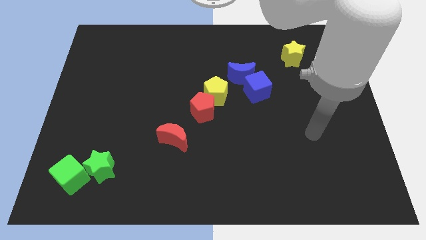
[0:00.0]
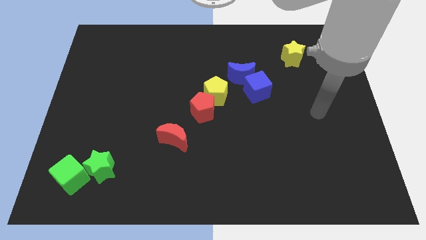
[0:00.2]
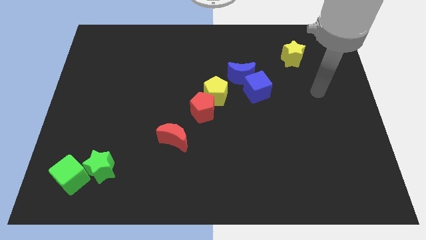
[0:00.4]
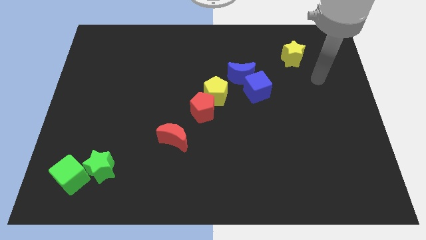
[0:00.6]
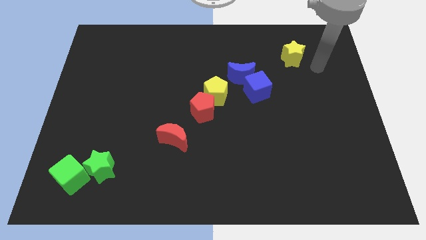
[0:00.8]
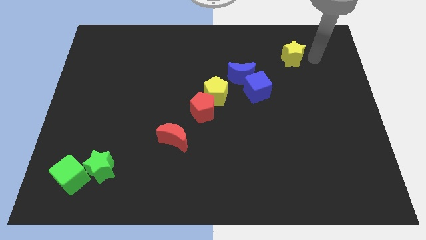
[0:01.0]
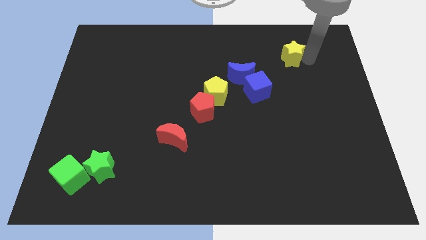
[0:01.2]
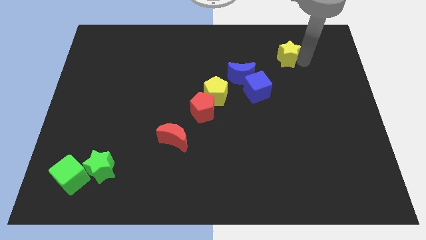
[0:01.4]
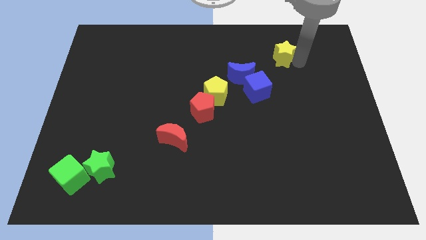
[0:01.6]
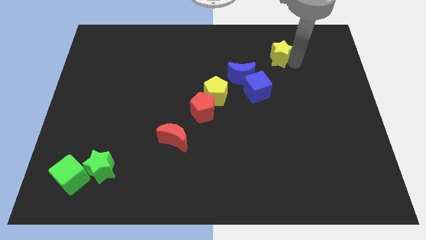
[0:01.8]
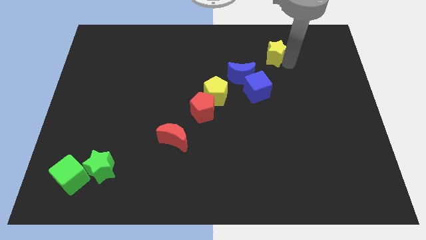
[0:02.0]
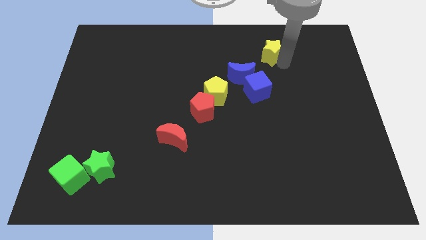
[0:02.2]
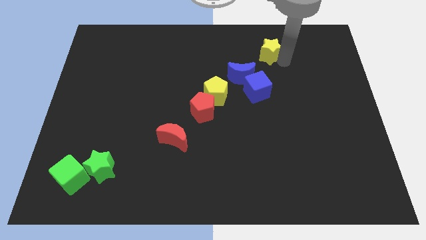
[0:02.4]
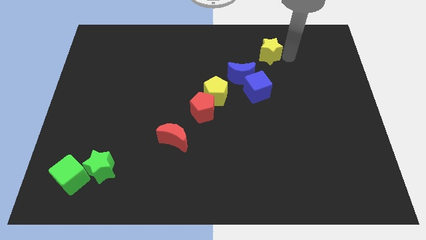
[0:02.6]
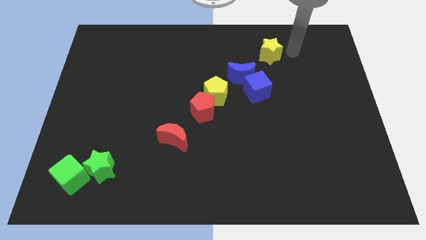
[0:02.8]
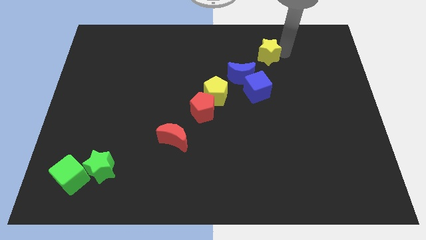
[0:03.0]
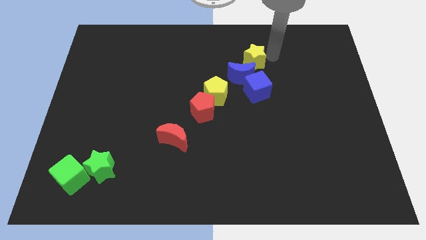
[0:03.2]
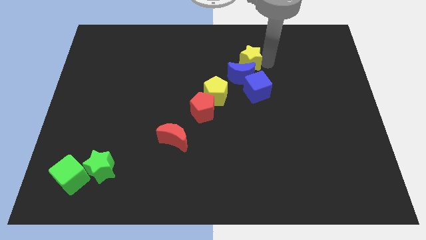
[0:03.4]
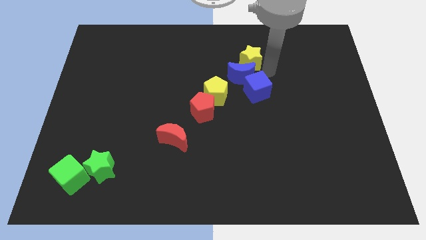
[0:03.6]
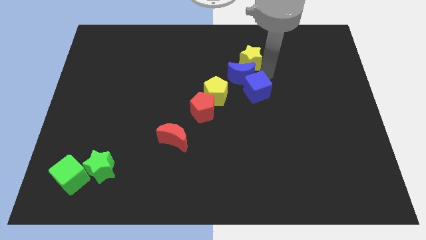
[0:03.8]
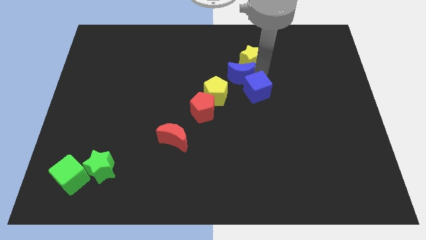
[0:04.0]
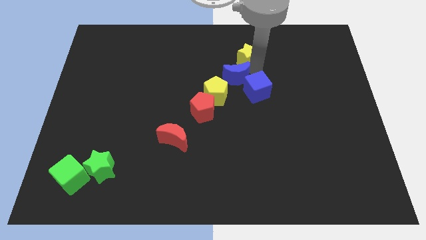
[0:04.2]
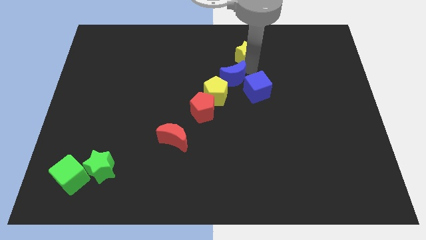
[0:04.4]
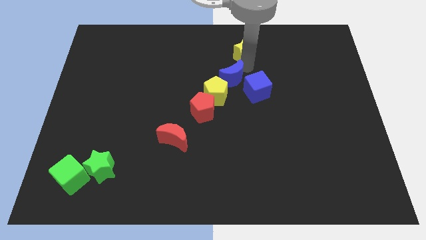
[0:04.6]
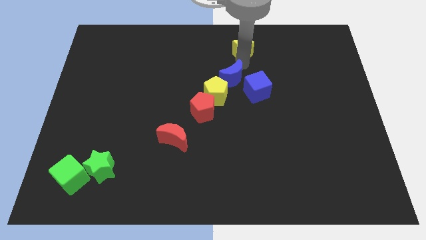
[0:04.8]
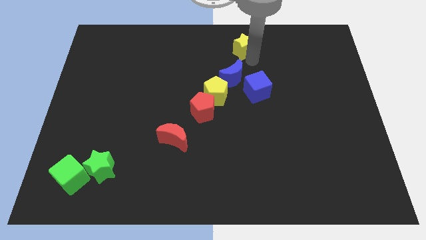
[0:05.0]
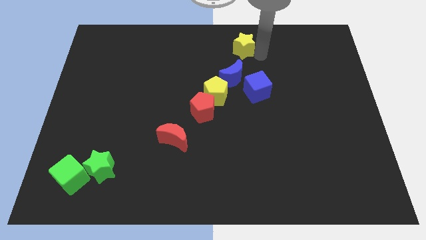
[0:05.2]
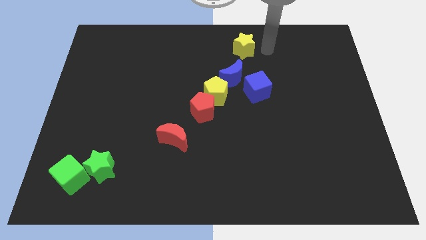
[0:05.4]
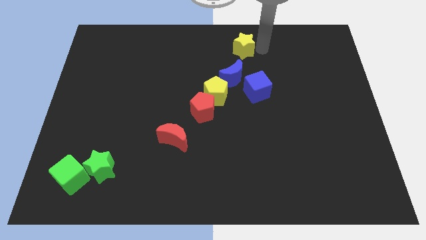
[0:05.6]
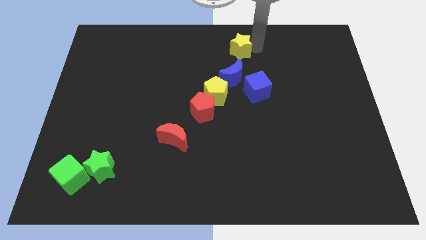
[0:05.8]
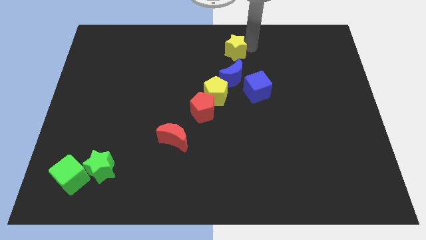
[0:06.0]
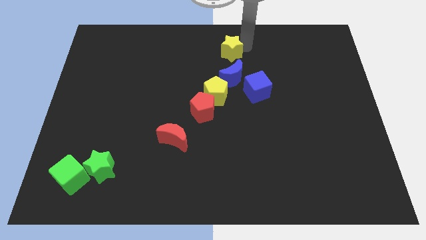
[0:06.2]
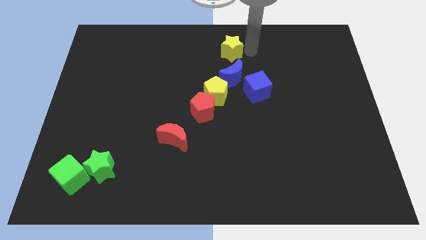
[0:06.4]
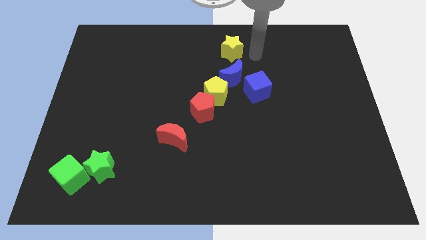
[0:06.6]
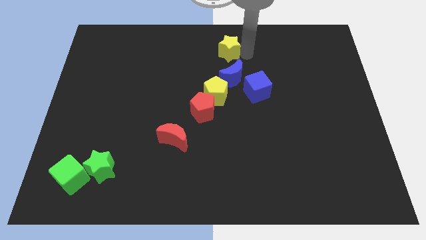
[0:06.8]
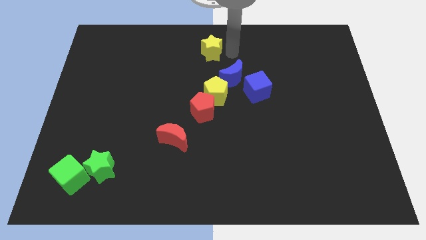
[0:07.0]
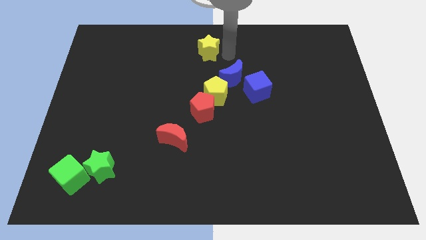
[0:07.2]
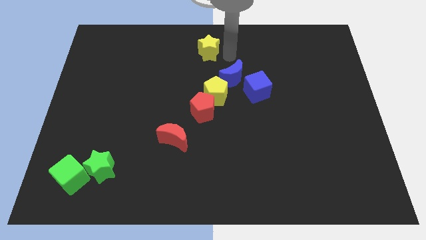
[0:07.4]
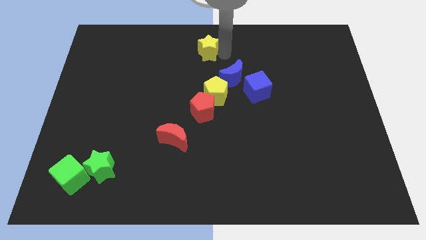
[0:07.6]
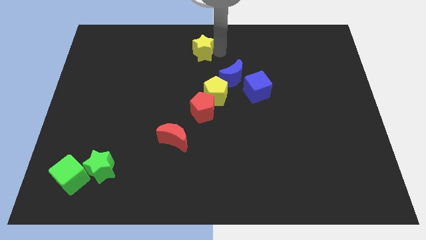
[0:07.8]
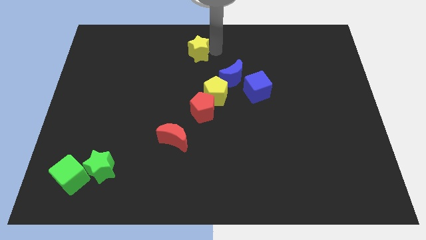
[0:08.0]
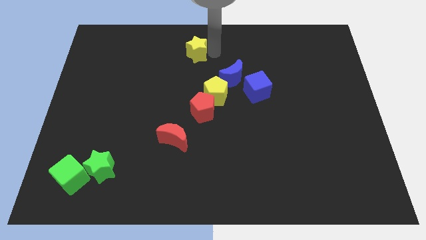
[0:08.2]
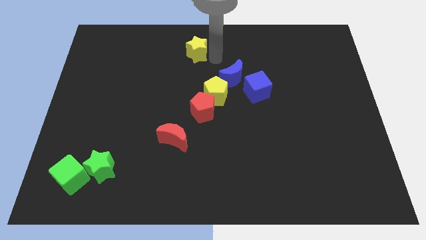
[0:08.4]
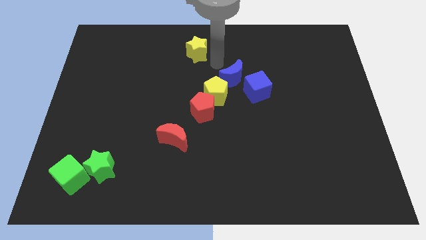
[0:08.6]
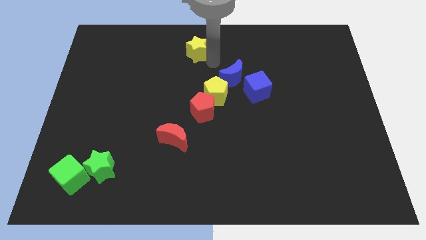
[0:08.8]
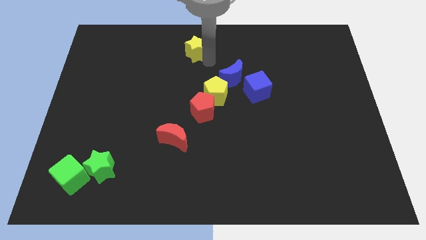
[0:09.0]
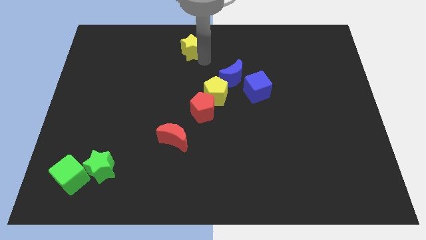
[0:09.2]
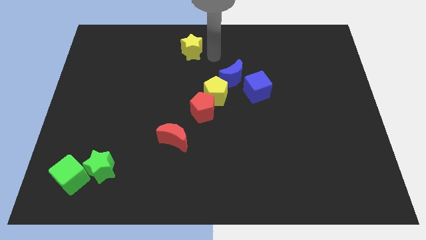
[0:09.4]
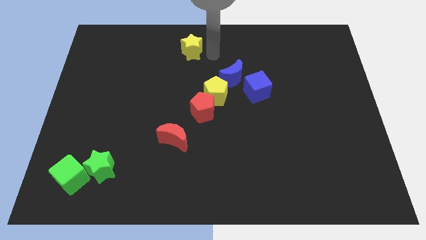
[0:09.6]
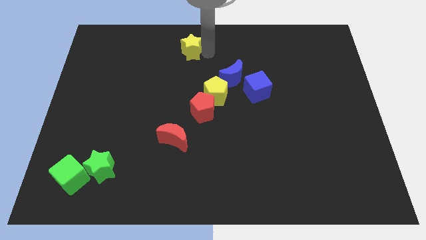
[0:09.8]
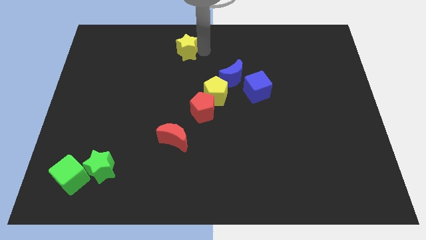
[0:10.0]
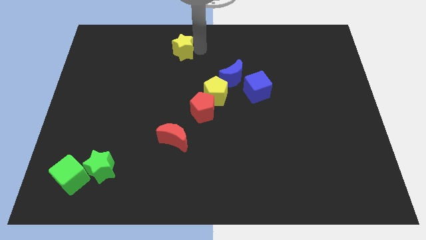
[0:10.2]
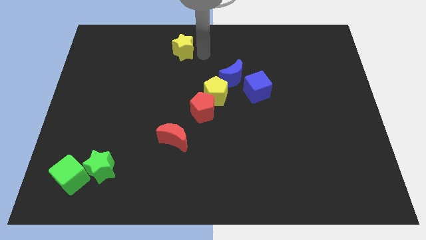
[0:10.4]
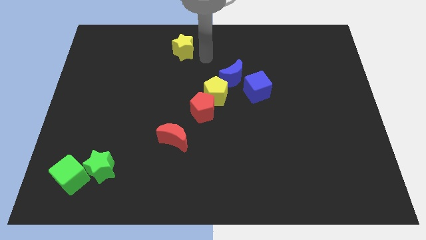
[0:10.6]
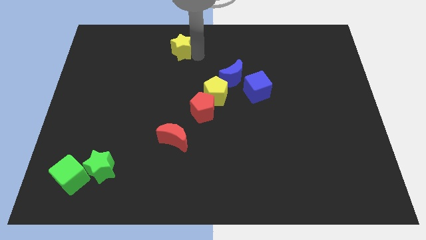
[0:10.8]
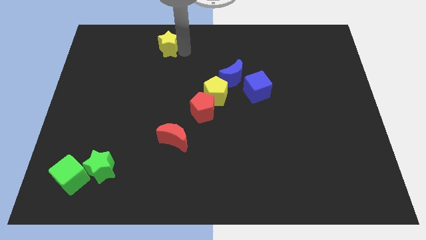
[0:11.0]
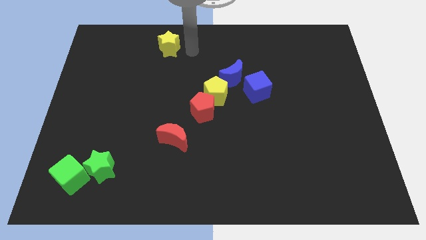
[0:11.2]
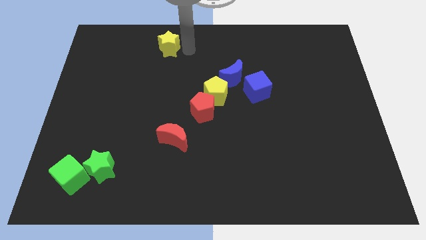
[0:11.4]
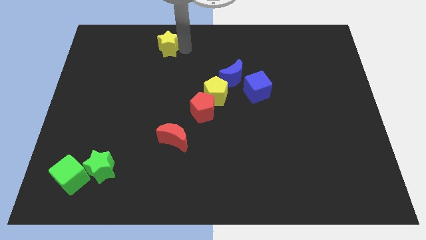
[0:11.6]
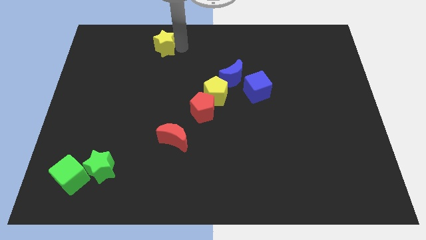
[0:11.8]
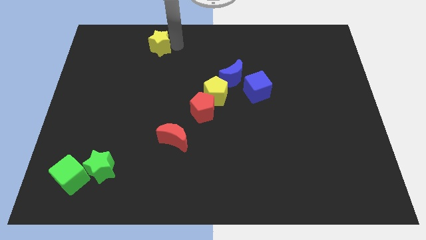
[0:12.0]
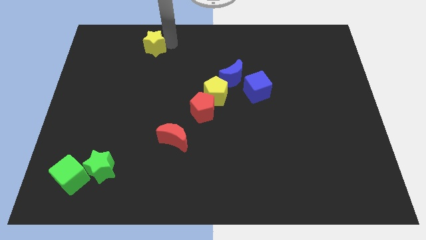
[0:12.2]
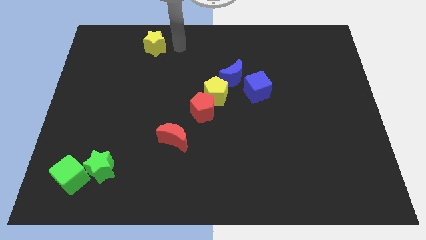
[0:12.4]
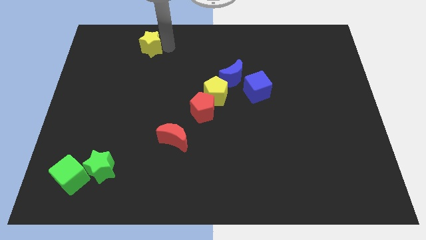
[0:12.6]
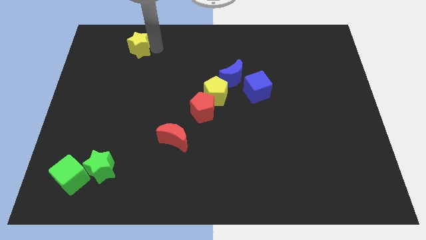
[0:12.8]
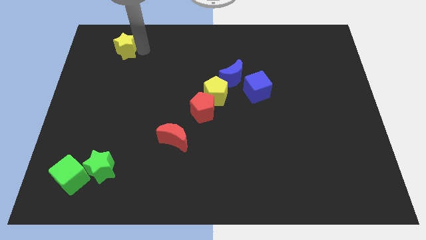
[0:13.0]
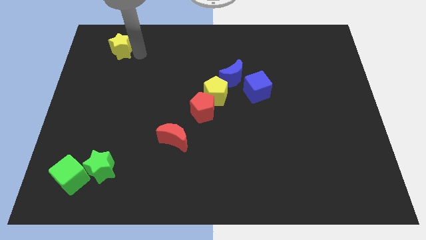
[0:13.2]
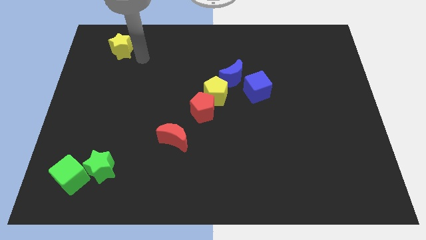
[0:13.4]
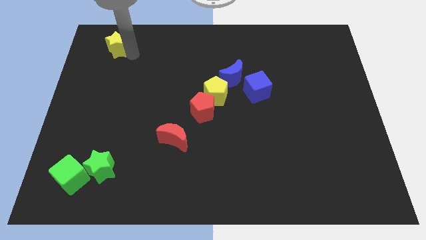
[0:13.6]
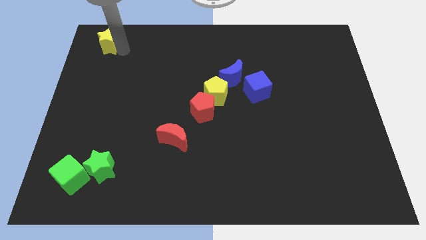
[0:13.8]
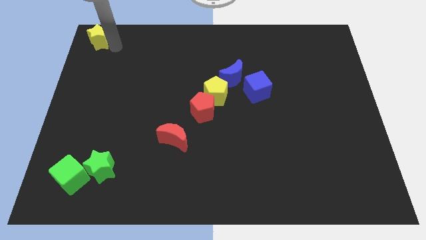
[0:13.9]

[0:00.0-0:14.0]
push the yellow star to the upper left corner
